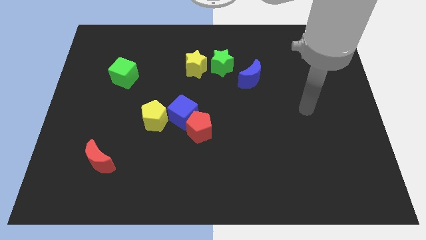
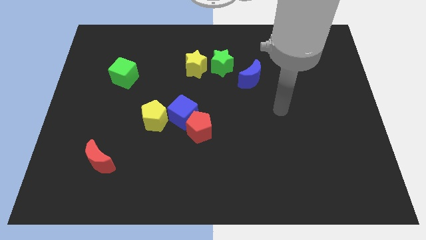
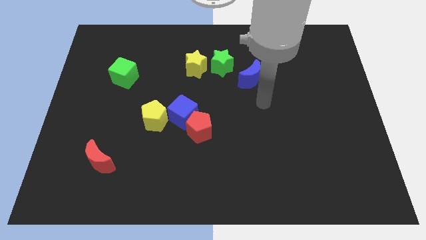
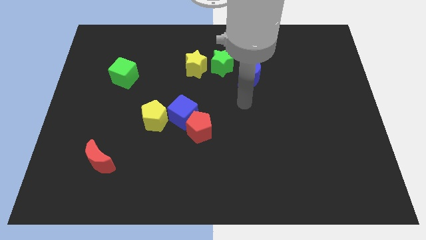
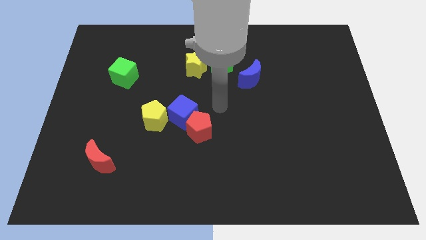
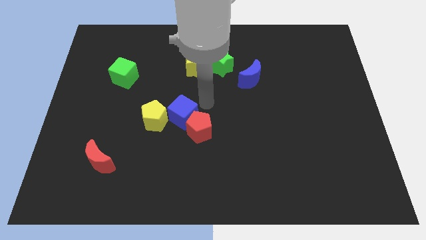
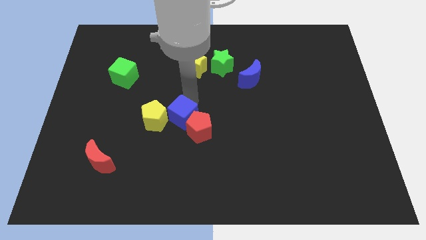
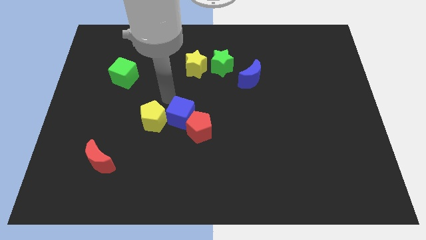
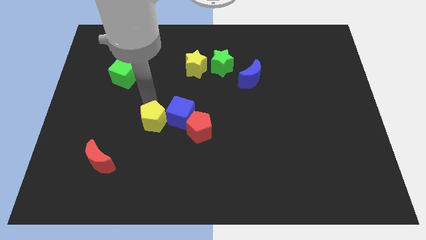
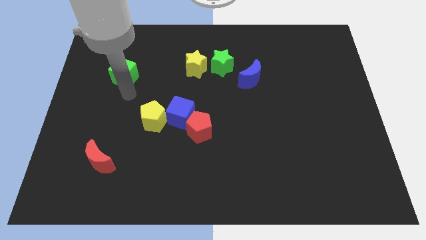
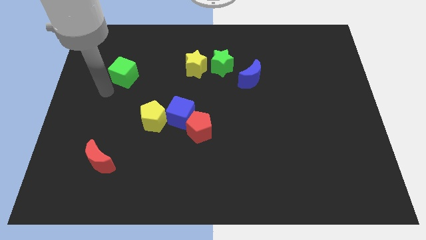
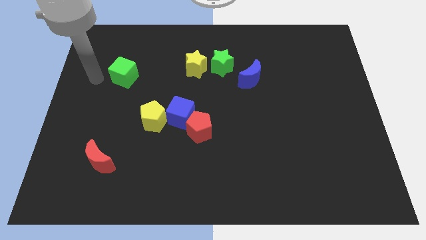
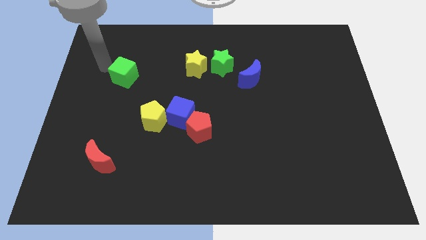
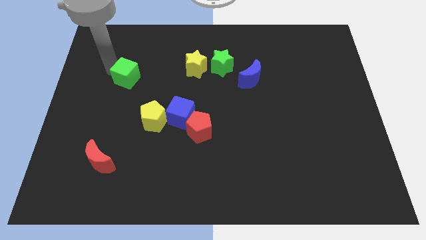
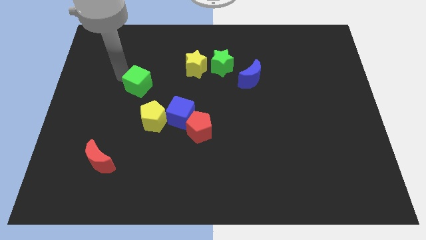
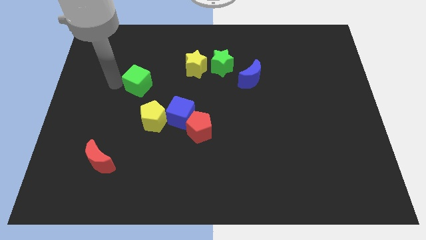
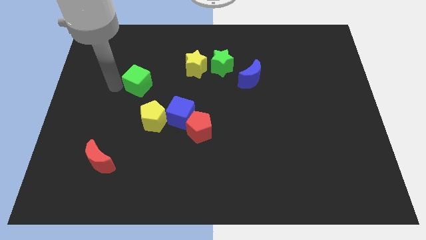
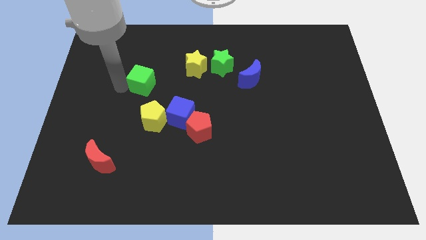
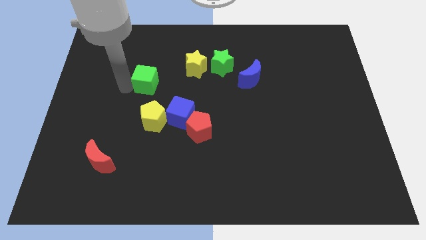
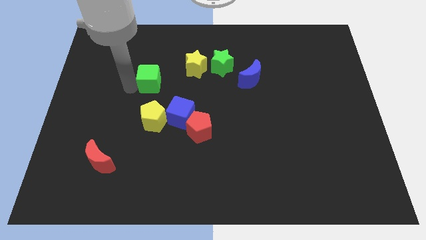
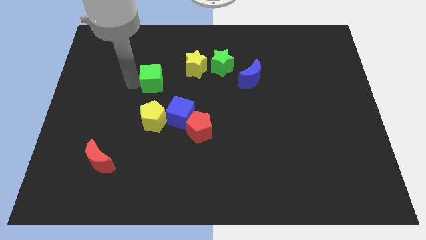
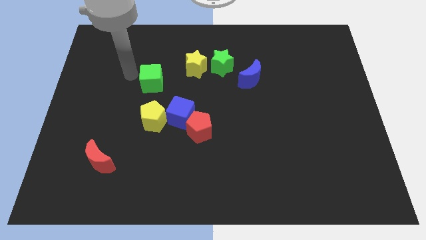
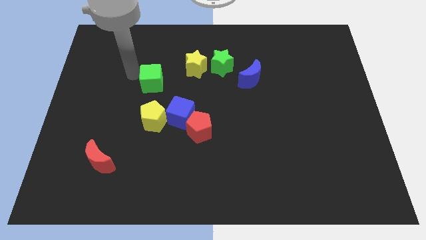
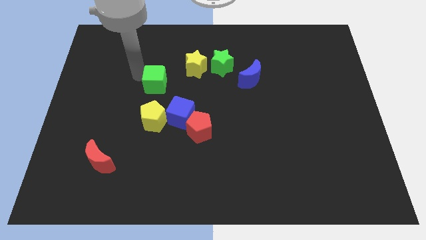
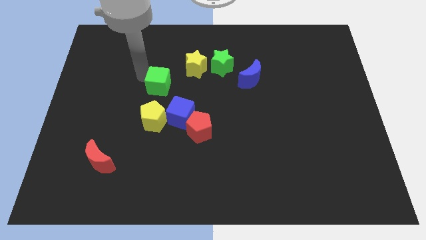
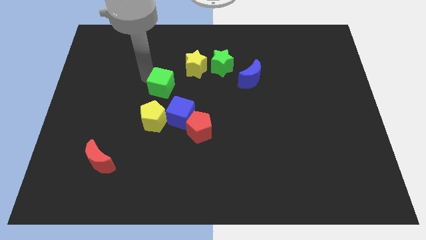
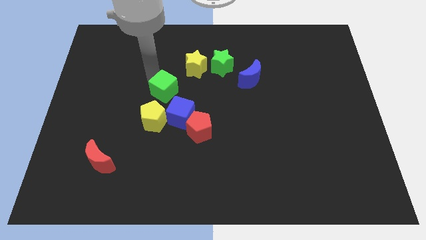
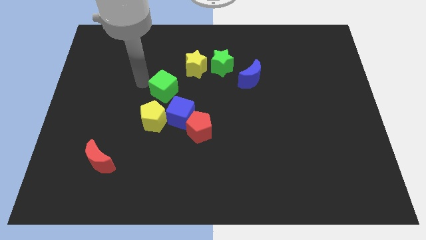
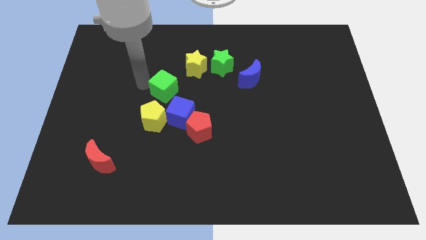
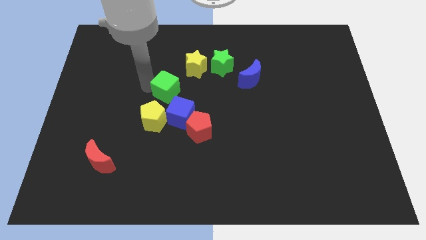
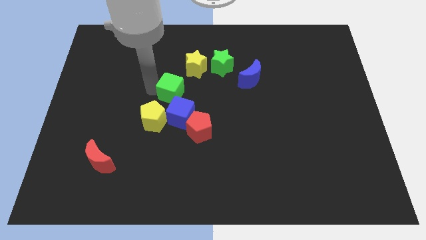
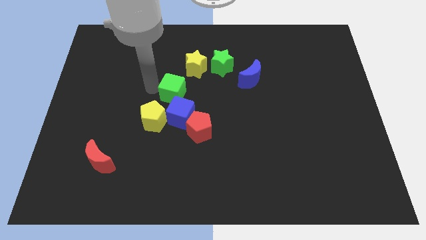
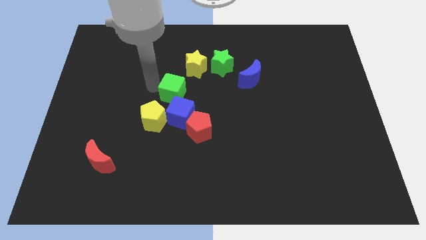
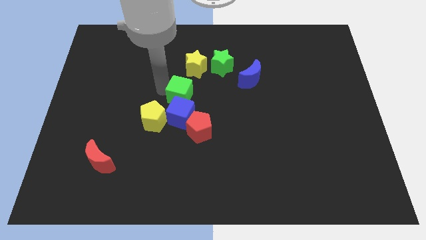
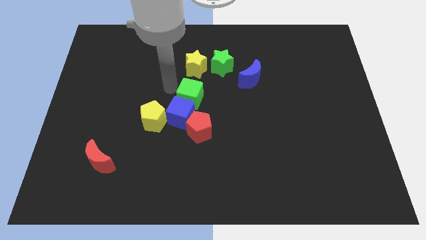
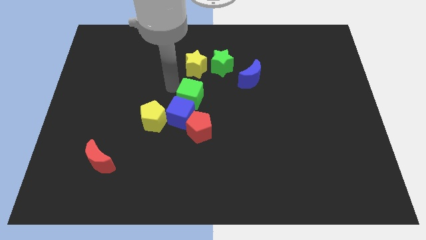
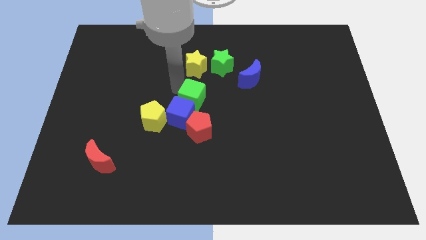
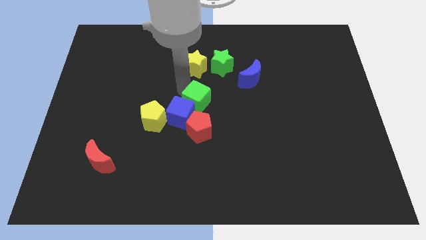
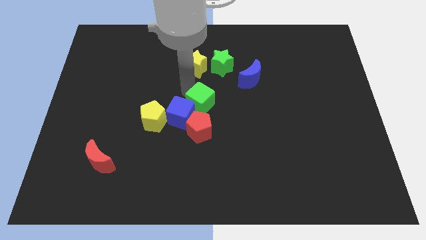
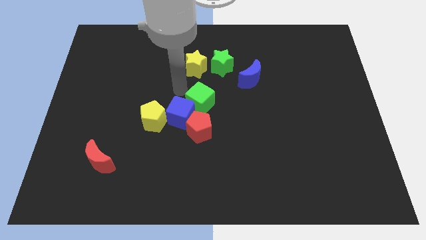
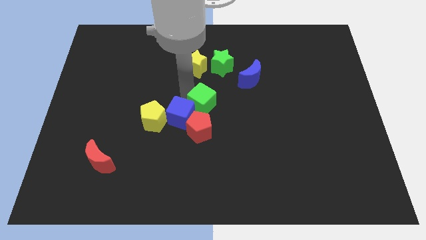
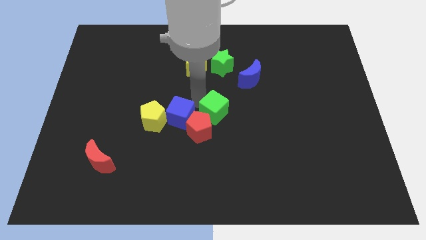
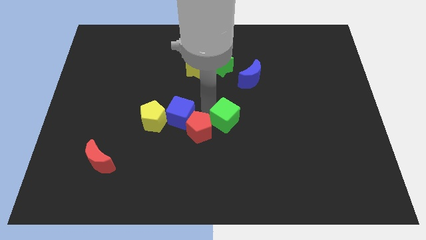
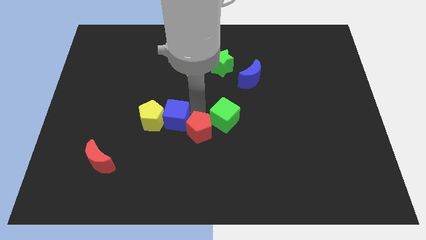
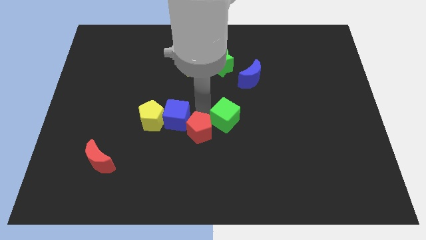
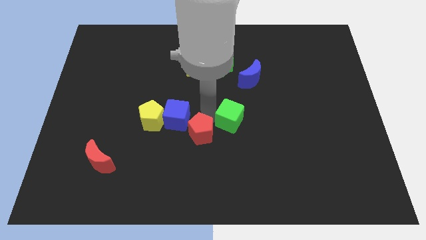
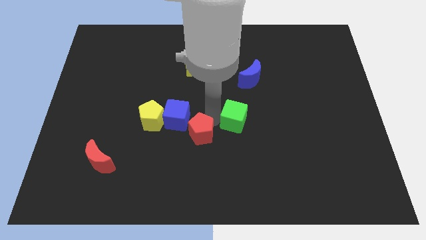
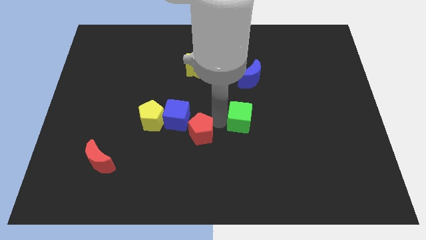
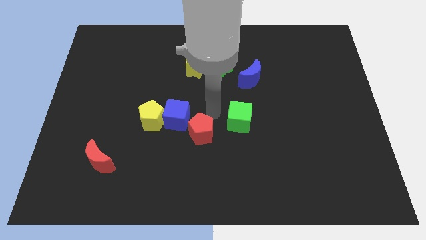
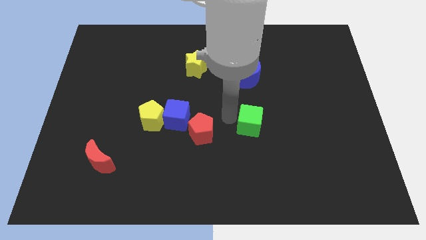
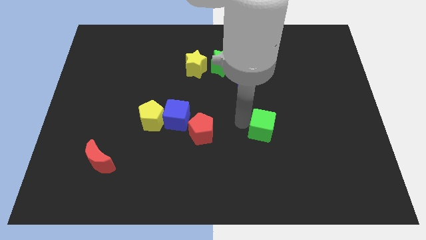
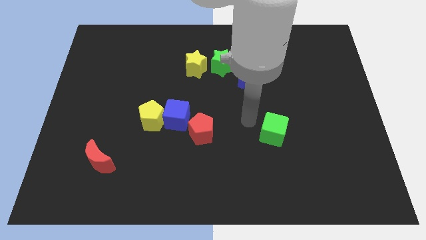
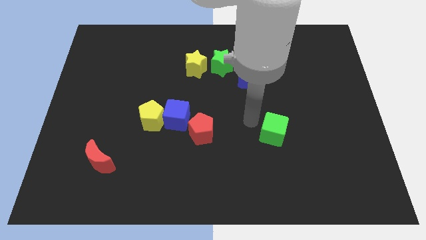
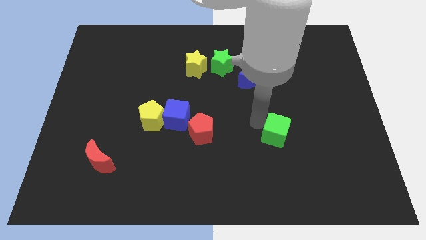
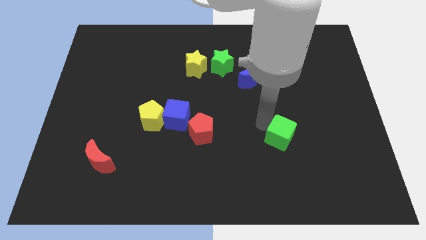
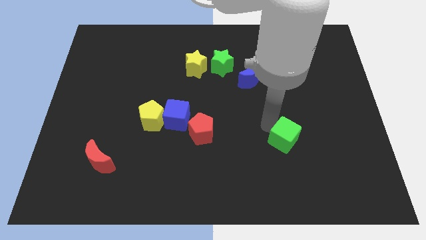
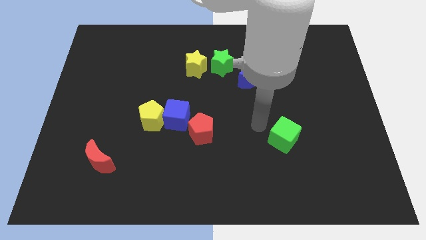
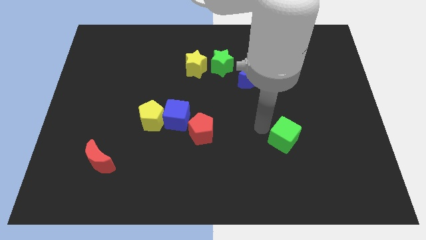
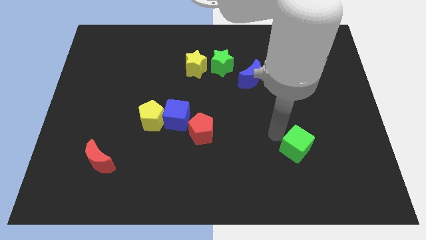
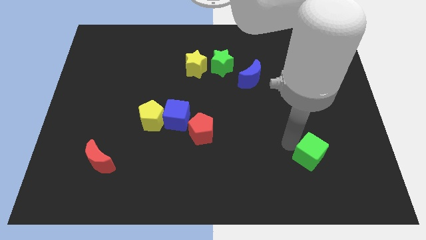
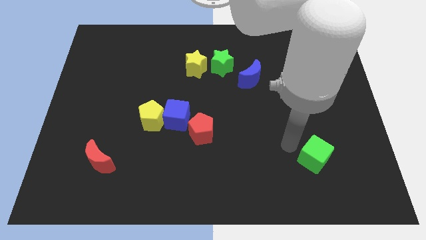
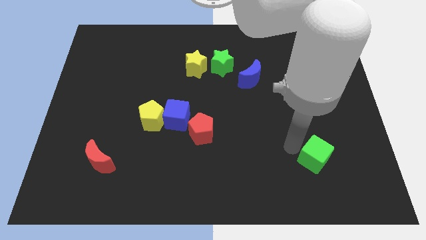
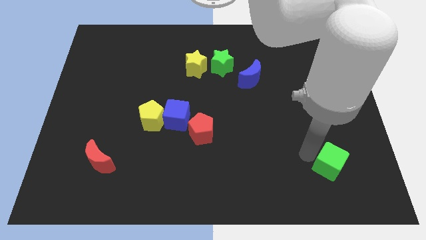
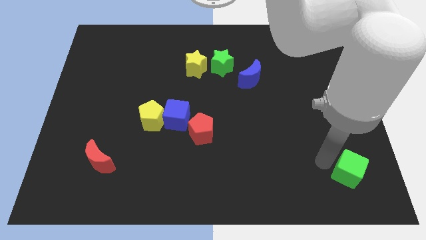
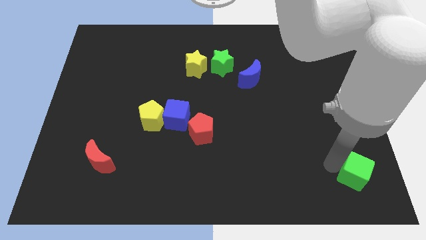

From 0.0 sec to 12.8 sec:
put the green cube to the lower right corner
